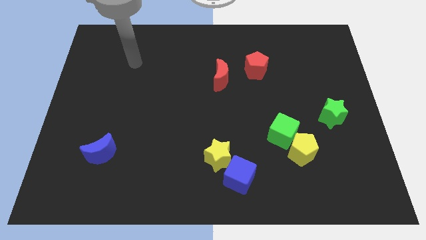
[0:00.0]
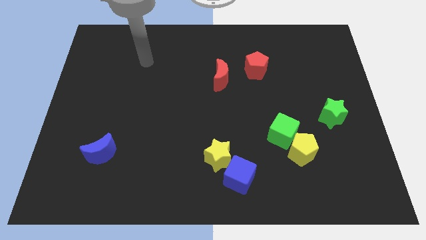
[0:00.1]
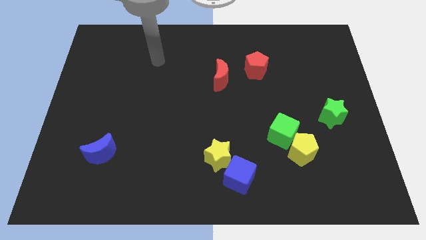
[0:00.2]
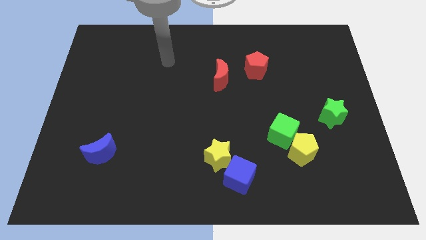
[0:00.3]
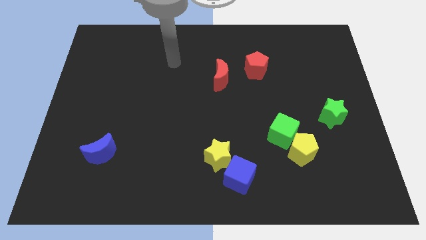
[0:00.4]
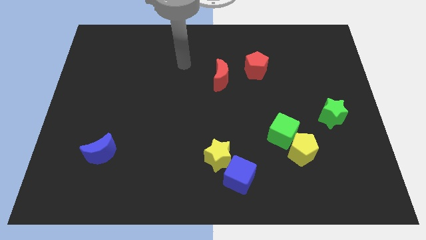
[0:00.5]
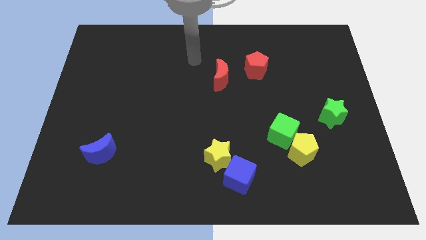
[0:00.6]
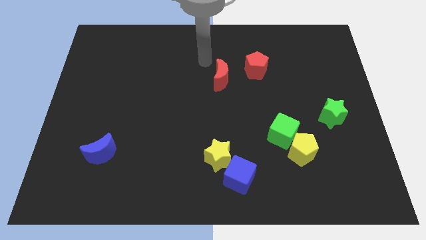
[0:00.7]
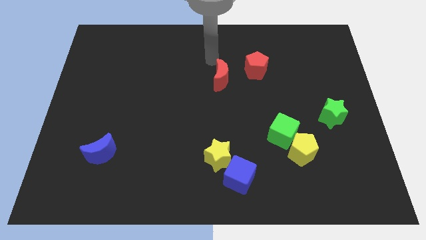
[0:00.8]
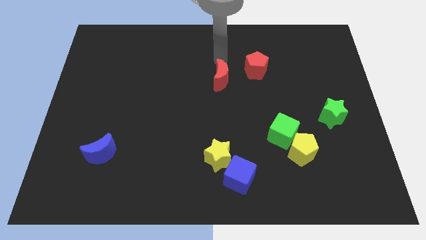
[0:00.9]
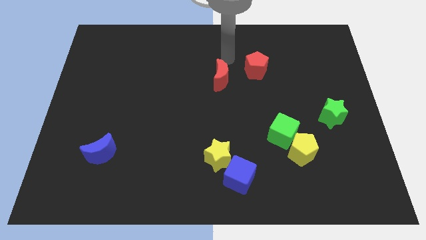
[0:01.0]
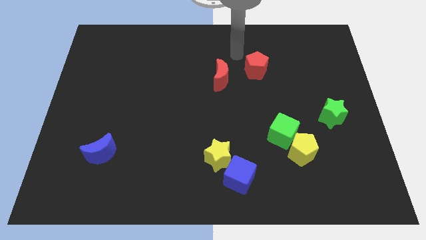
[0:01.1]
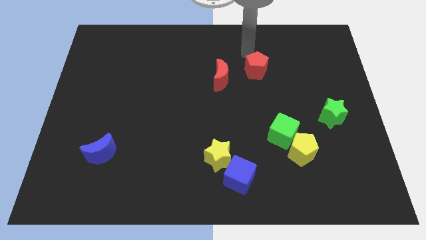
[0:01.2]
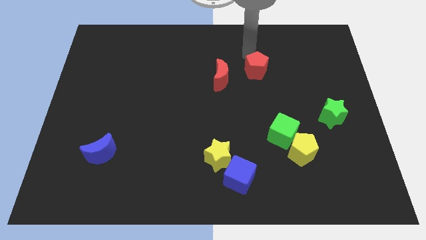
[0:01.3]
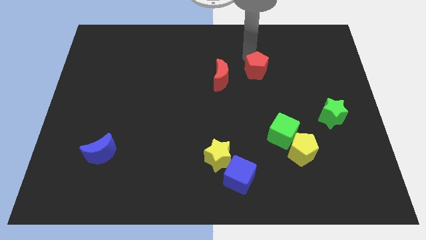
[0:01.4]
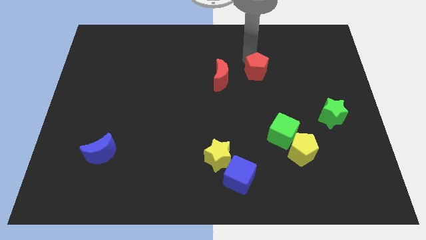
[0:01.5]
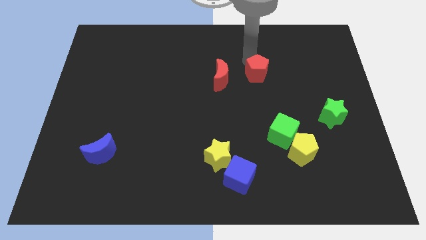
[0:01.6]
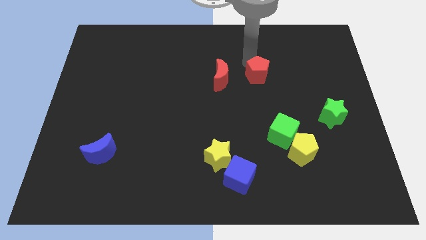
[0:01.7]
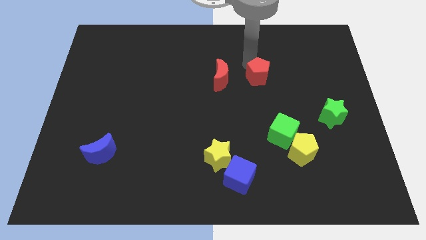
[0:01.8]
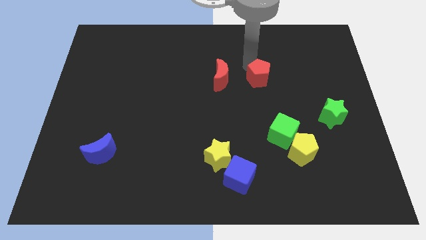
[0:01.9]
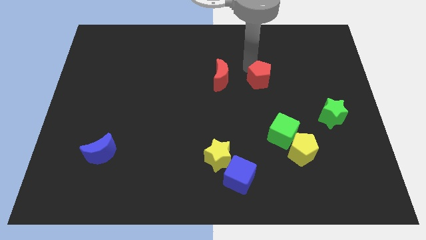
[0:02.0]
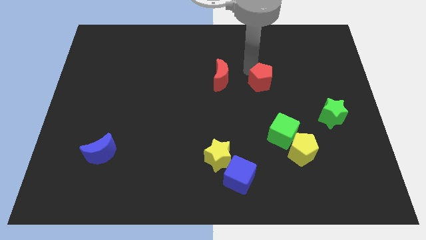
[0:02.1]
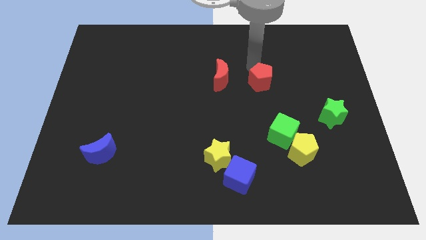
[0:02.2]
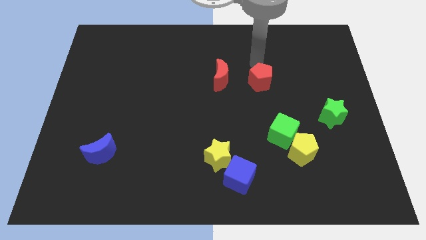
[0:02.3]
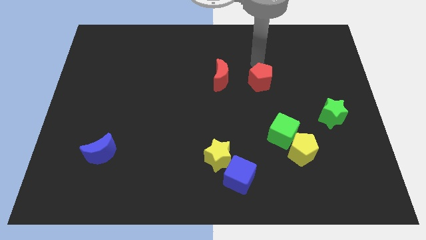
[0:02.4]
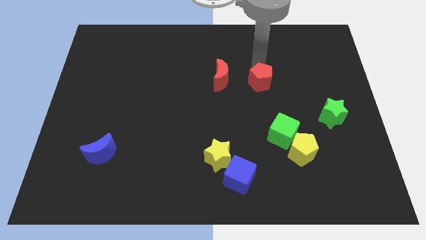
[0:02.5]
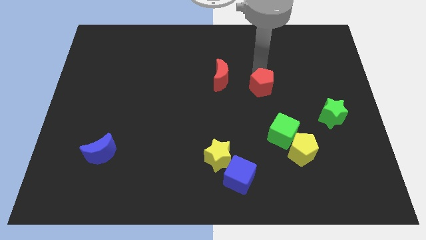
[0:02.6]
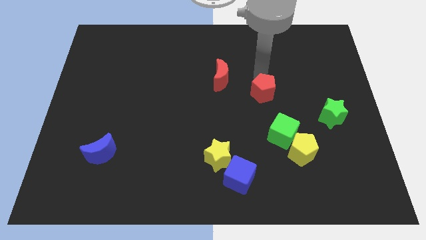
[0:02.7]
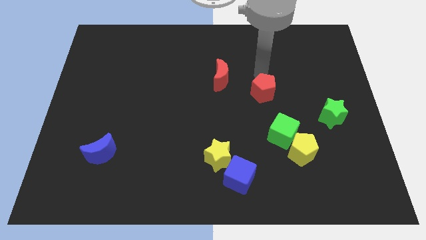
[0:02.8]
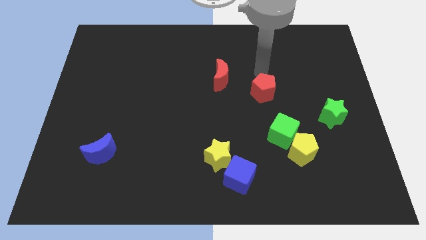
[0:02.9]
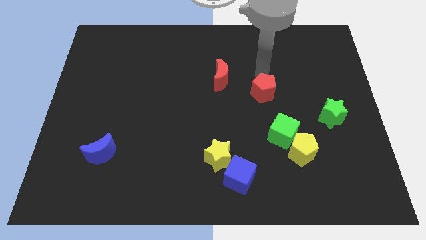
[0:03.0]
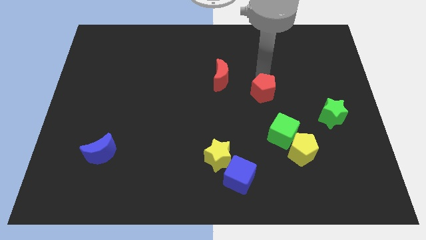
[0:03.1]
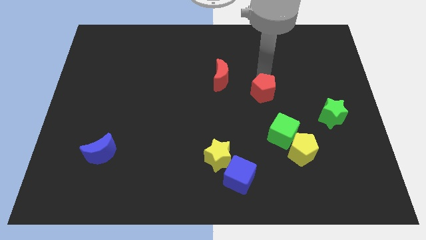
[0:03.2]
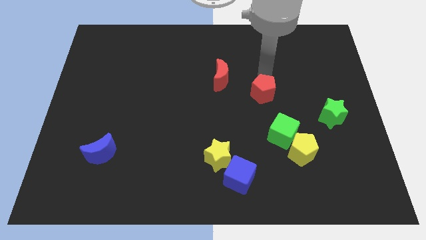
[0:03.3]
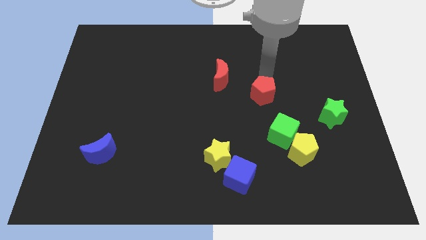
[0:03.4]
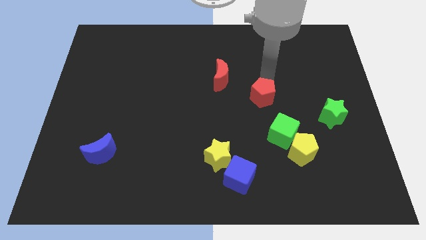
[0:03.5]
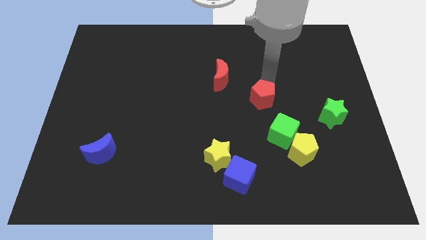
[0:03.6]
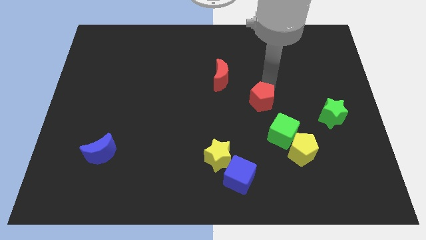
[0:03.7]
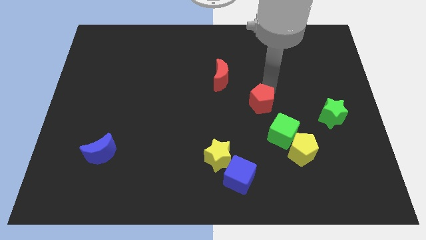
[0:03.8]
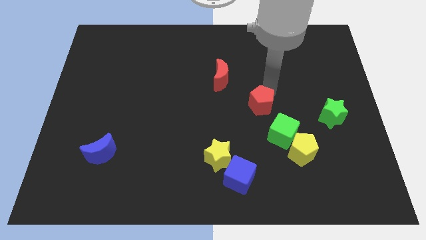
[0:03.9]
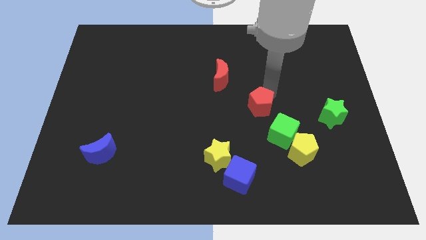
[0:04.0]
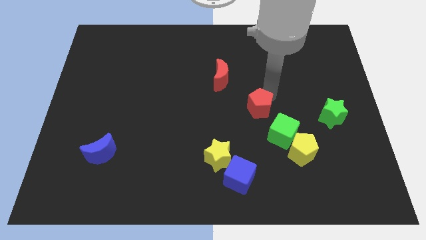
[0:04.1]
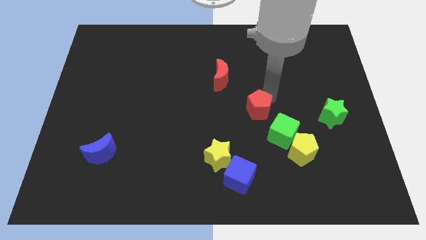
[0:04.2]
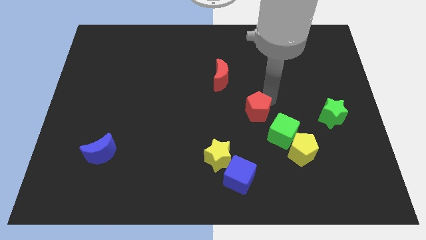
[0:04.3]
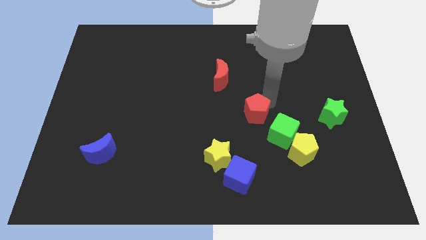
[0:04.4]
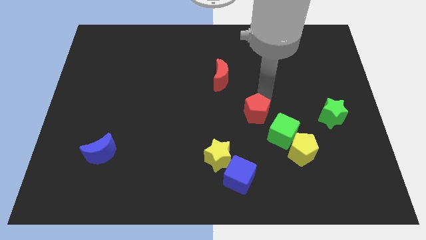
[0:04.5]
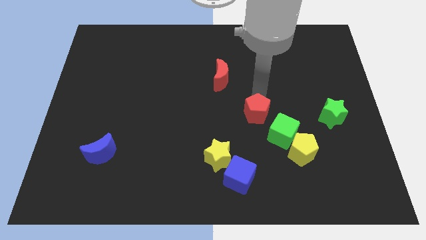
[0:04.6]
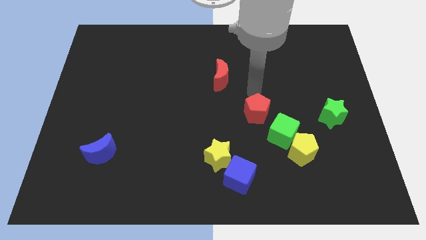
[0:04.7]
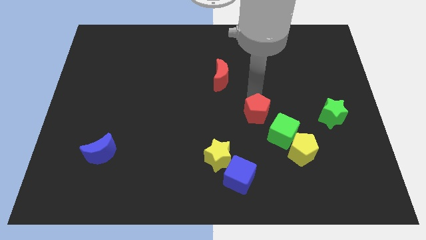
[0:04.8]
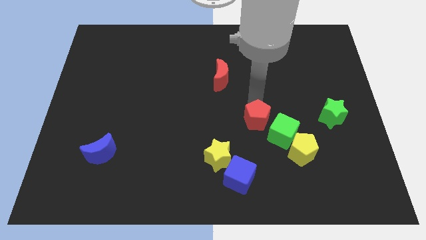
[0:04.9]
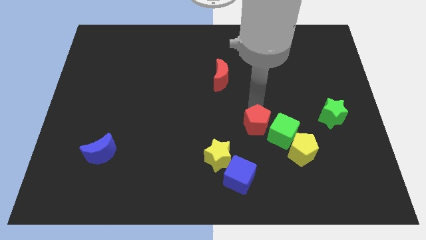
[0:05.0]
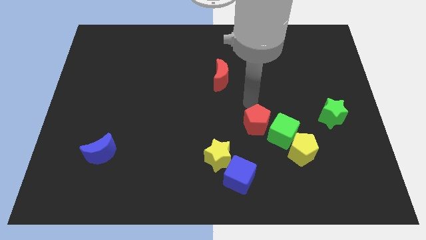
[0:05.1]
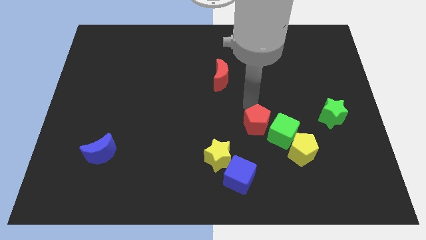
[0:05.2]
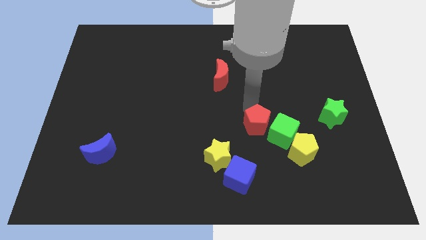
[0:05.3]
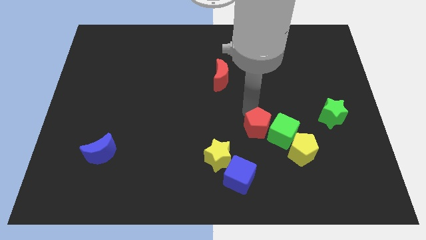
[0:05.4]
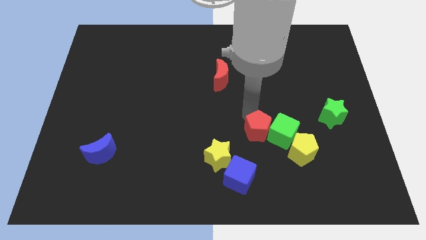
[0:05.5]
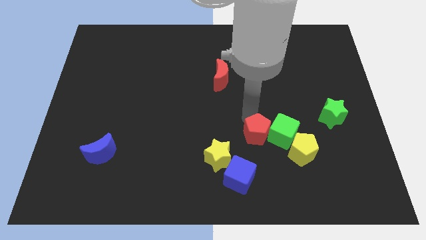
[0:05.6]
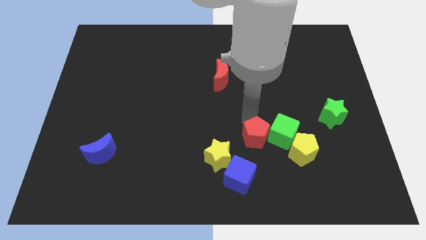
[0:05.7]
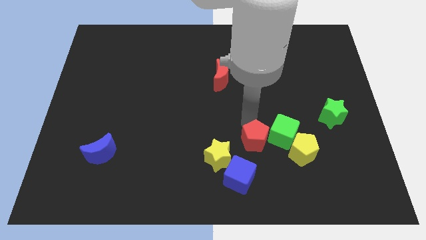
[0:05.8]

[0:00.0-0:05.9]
move the red pentagon right of the yellow star

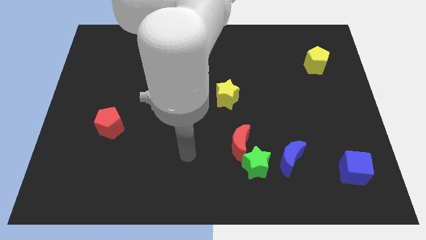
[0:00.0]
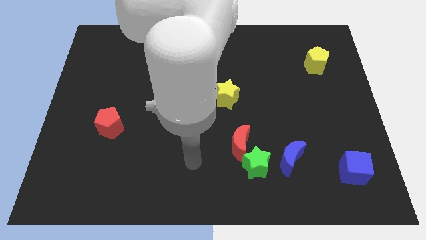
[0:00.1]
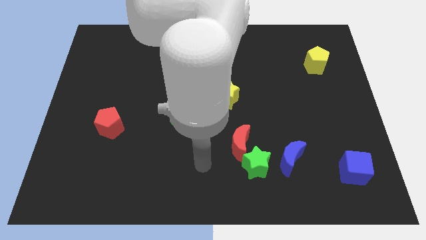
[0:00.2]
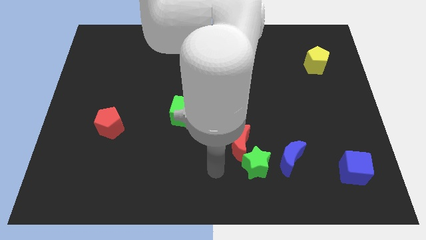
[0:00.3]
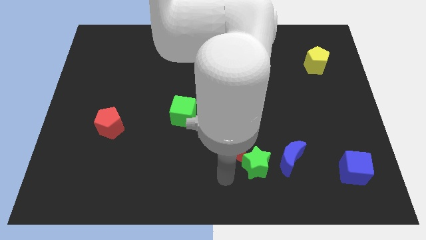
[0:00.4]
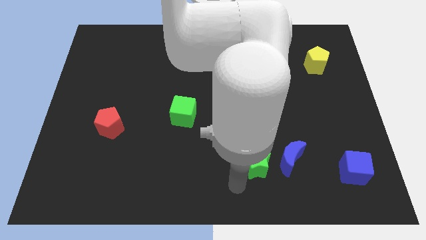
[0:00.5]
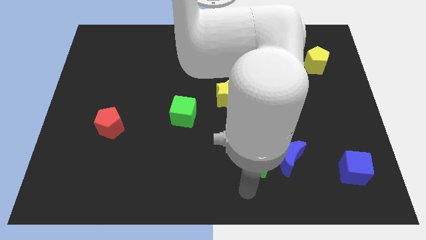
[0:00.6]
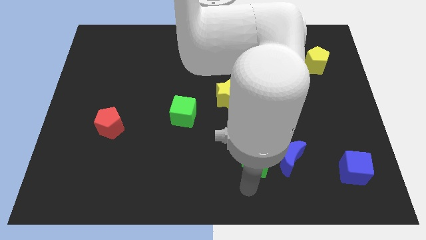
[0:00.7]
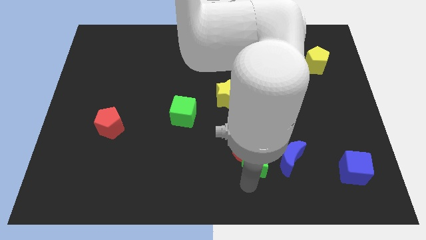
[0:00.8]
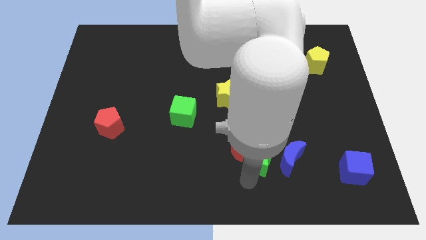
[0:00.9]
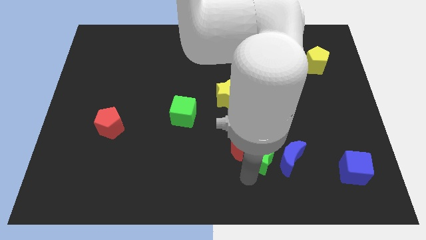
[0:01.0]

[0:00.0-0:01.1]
put the green star to the top left of the blue moon

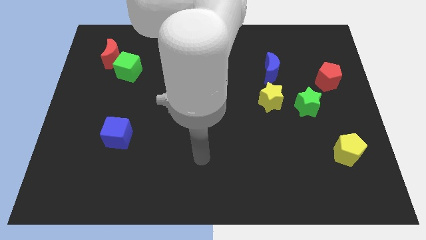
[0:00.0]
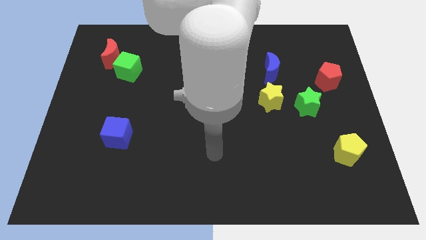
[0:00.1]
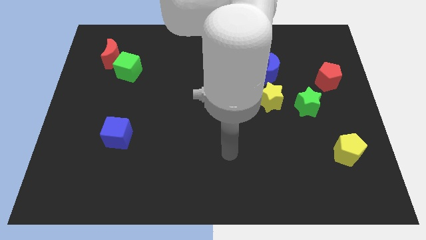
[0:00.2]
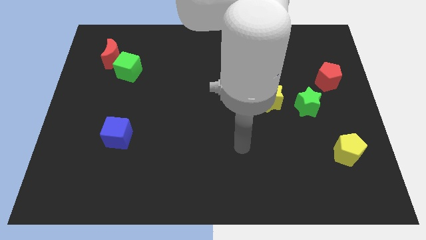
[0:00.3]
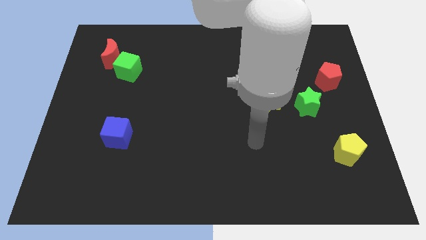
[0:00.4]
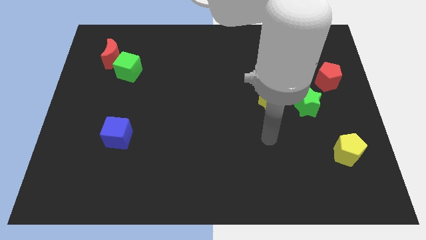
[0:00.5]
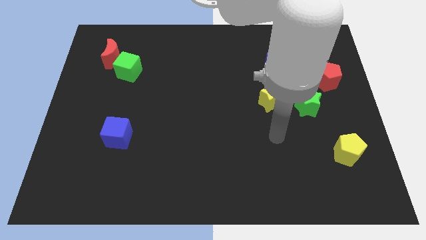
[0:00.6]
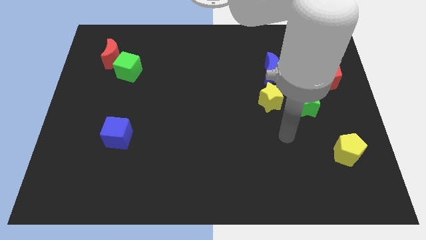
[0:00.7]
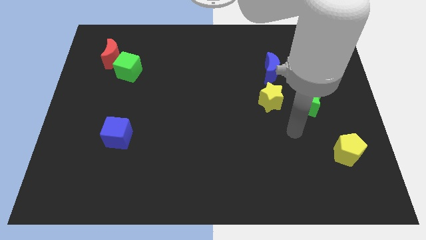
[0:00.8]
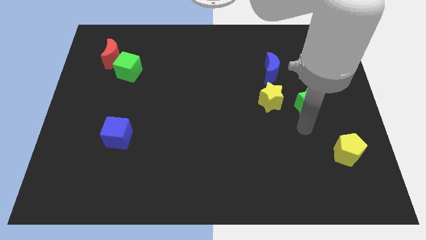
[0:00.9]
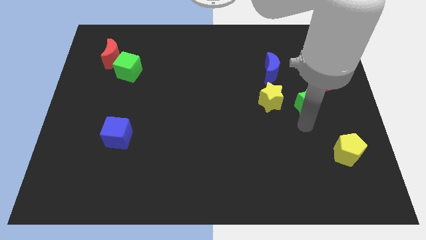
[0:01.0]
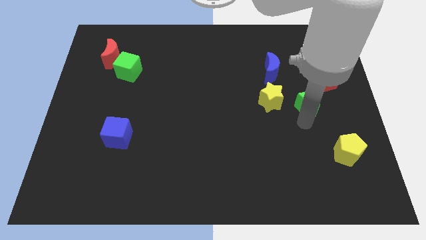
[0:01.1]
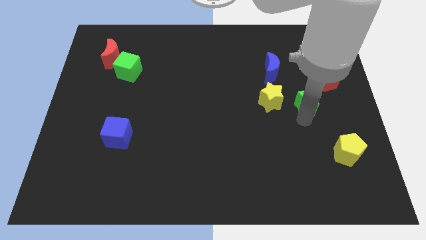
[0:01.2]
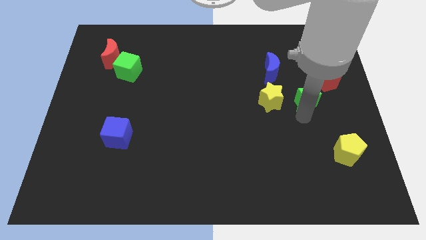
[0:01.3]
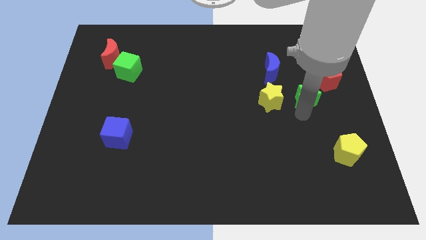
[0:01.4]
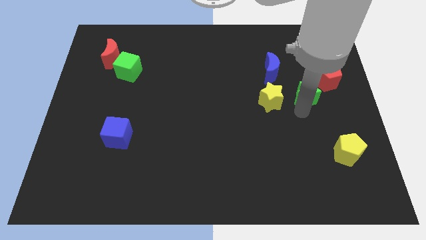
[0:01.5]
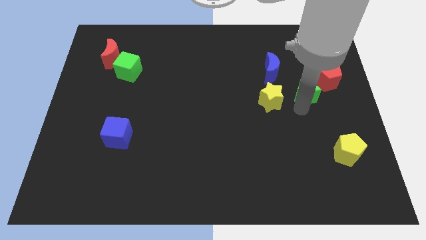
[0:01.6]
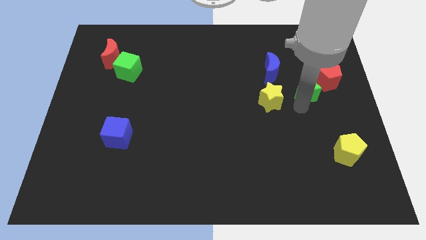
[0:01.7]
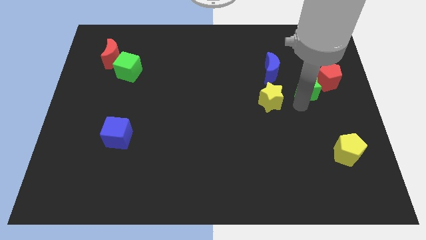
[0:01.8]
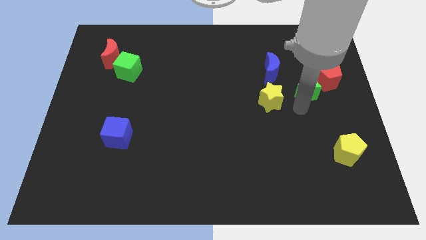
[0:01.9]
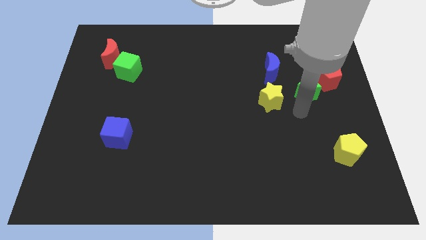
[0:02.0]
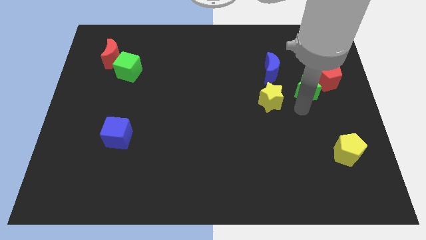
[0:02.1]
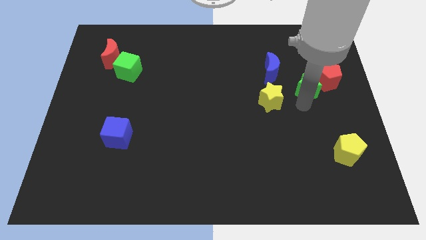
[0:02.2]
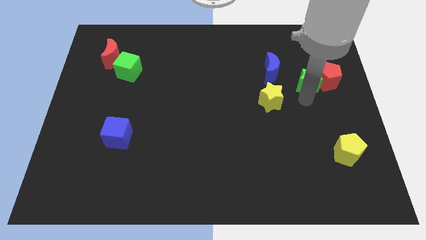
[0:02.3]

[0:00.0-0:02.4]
slide the green star right of the blue moon
